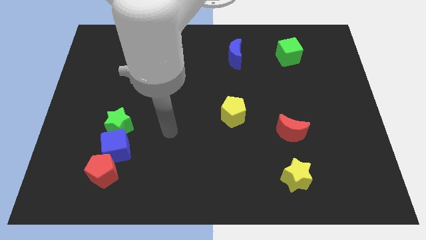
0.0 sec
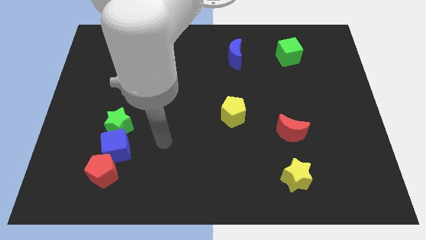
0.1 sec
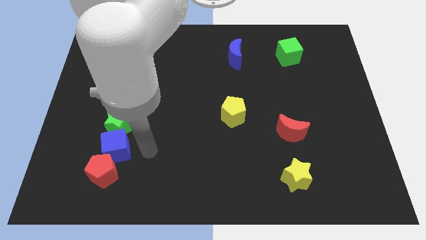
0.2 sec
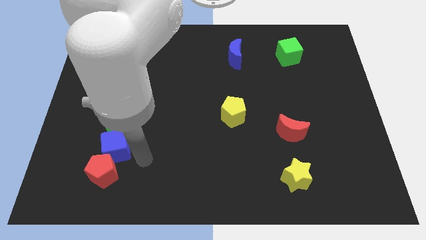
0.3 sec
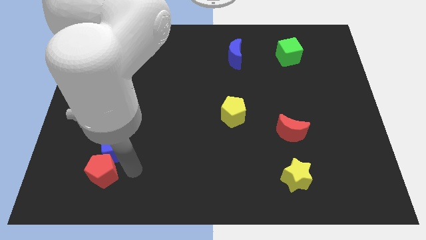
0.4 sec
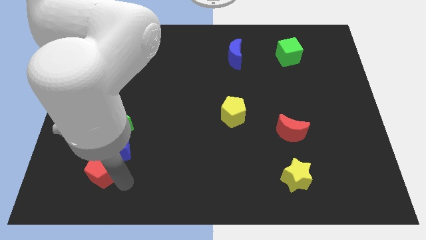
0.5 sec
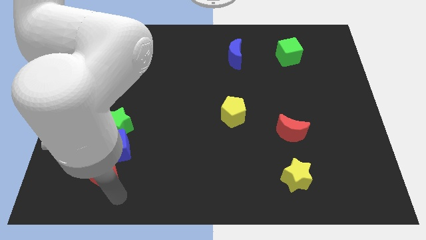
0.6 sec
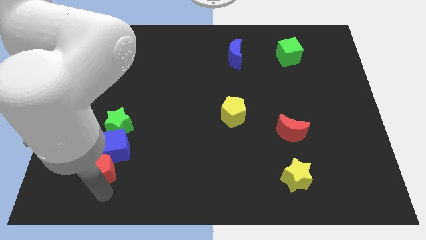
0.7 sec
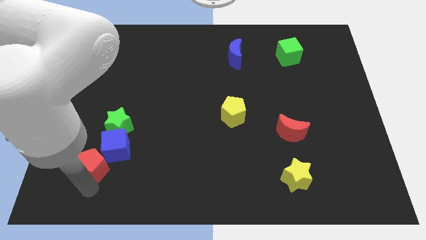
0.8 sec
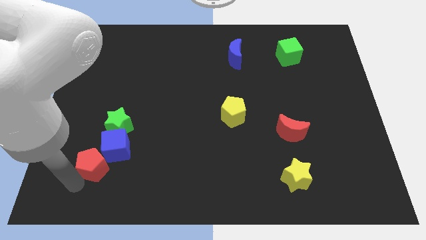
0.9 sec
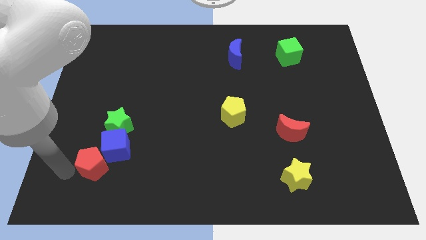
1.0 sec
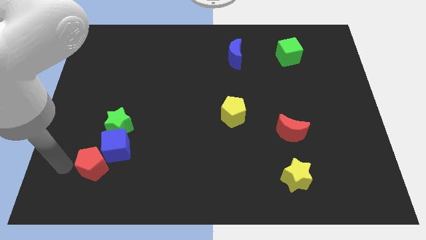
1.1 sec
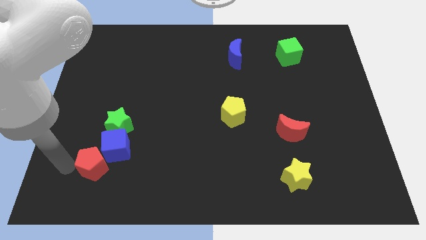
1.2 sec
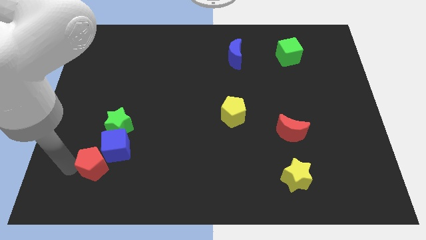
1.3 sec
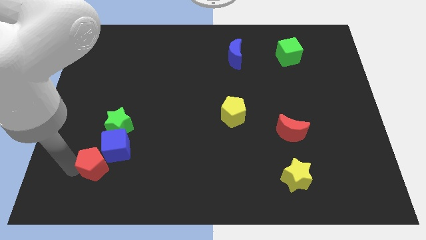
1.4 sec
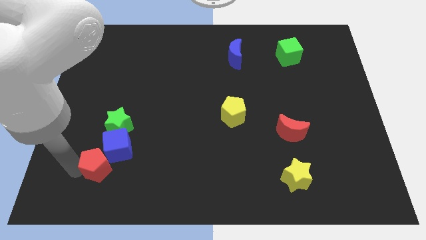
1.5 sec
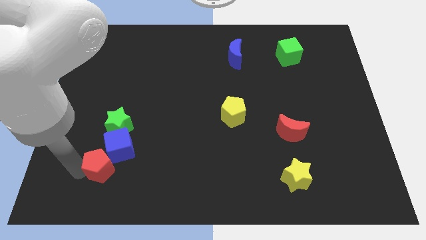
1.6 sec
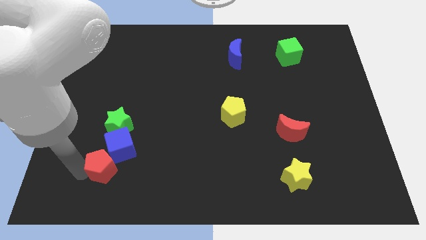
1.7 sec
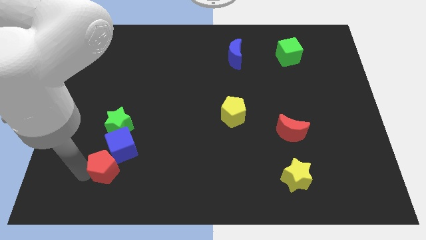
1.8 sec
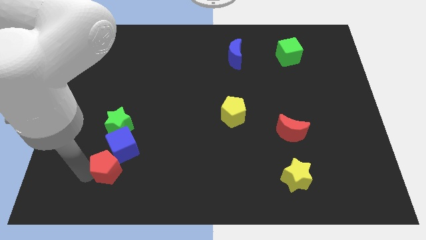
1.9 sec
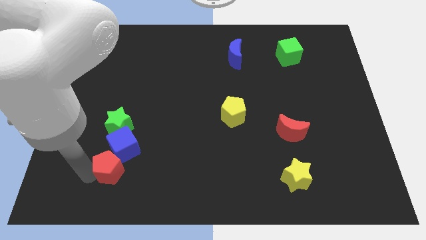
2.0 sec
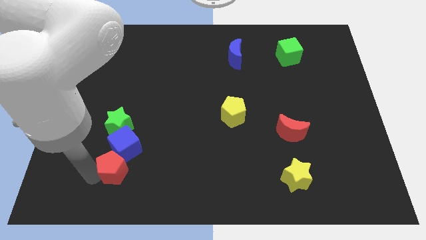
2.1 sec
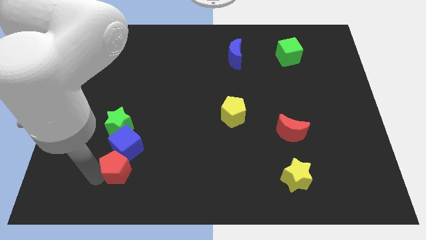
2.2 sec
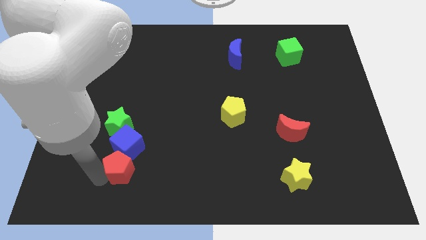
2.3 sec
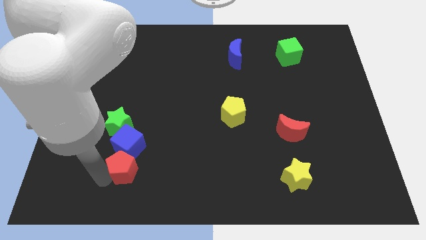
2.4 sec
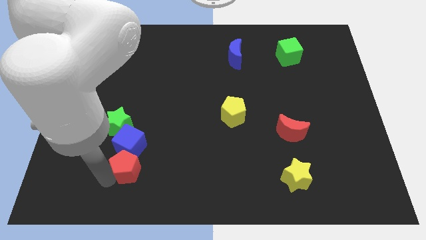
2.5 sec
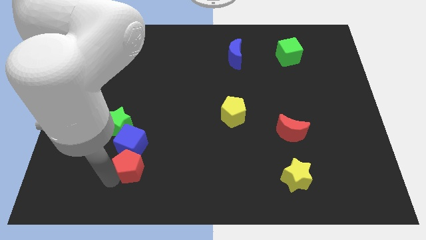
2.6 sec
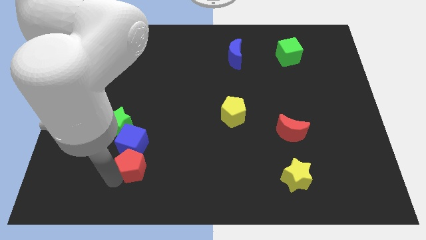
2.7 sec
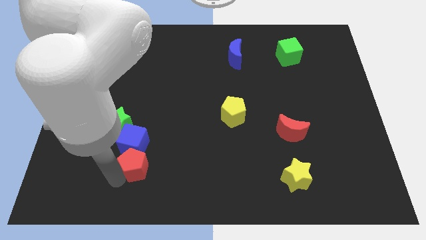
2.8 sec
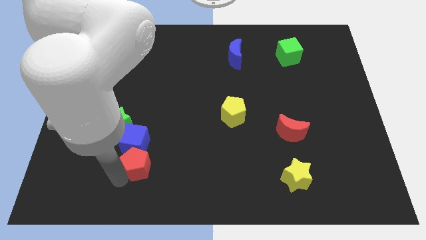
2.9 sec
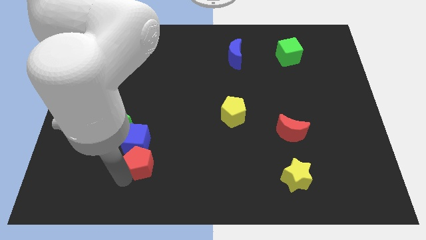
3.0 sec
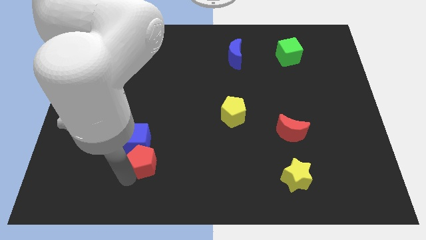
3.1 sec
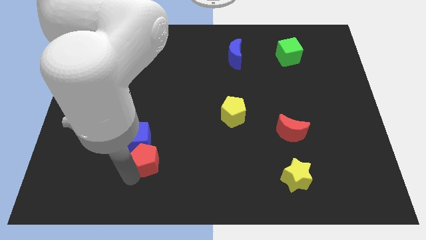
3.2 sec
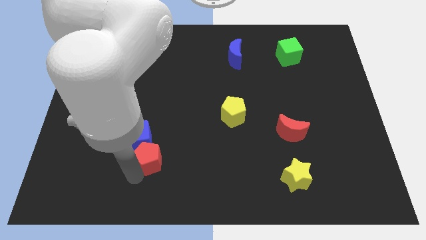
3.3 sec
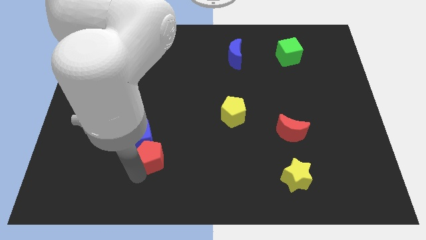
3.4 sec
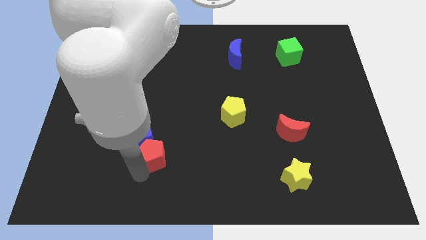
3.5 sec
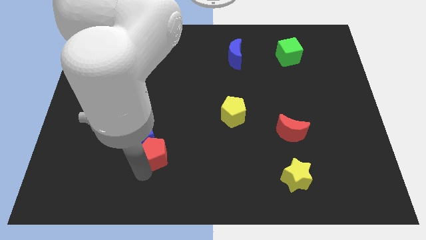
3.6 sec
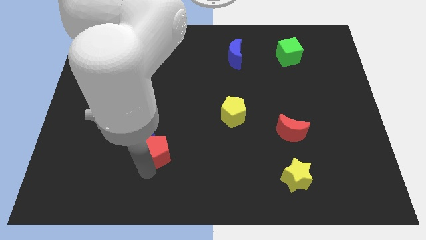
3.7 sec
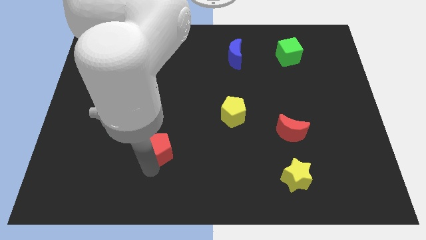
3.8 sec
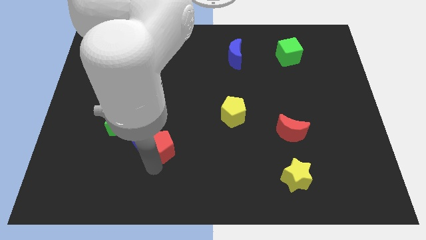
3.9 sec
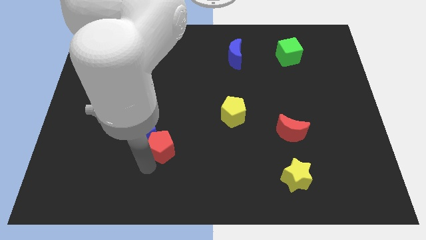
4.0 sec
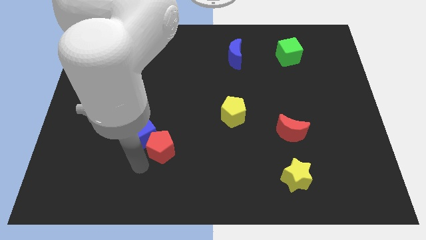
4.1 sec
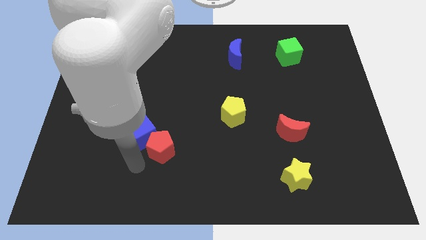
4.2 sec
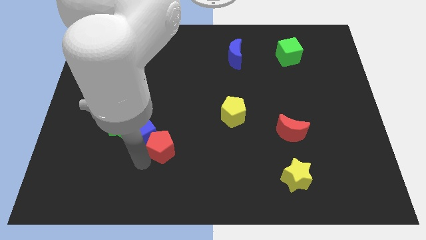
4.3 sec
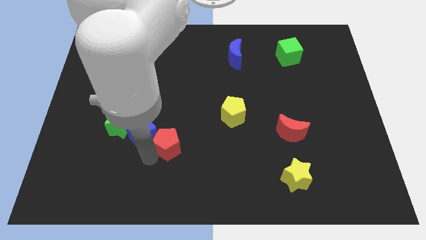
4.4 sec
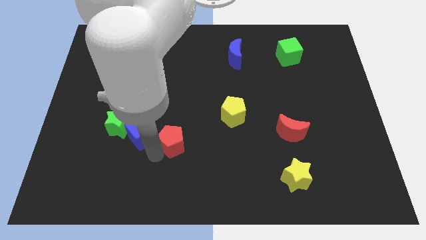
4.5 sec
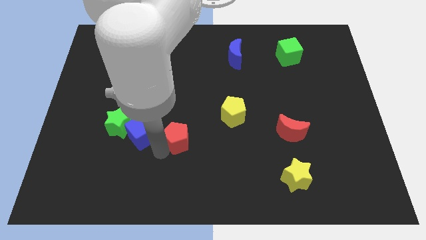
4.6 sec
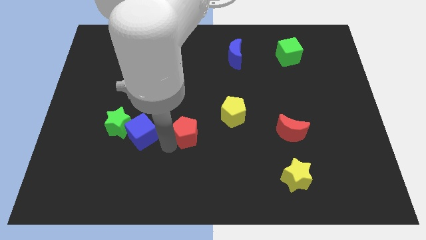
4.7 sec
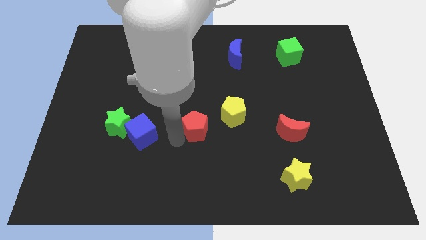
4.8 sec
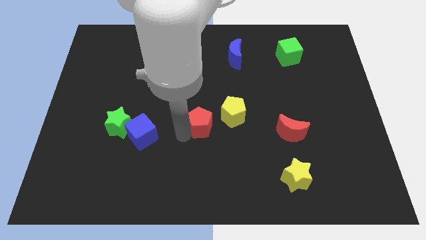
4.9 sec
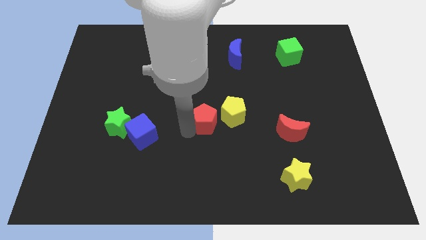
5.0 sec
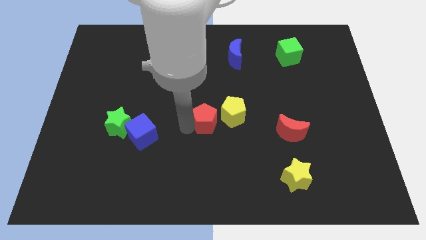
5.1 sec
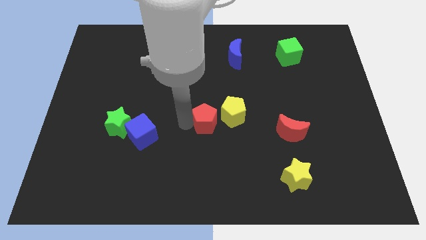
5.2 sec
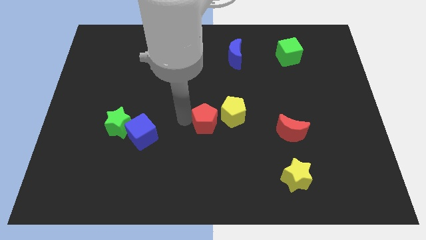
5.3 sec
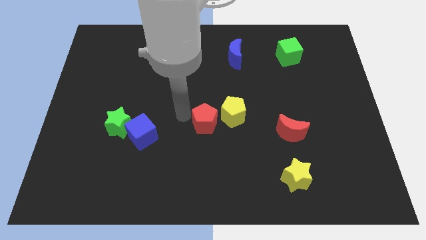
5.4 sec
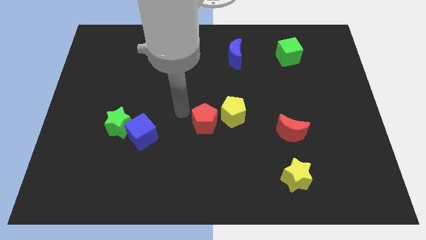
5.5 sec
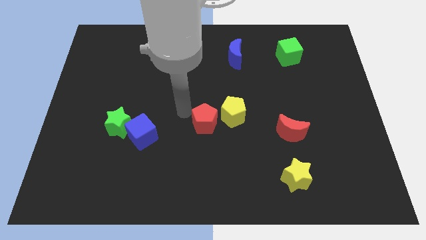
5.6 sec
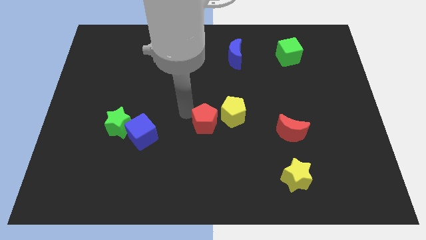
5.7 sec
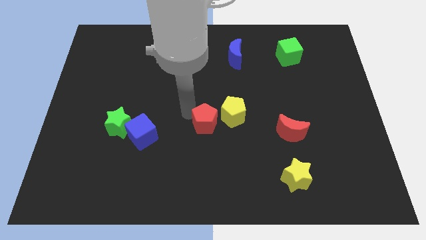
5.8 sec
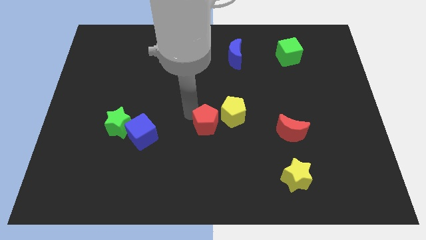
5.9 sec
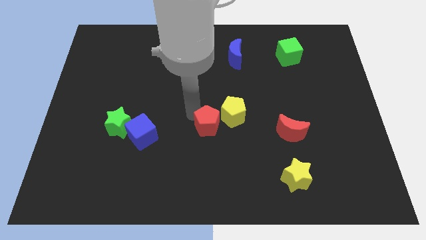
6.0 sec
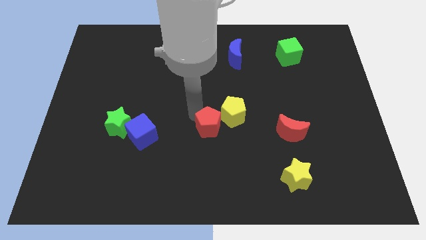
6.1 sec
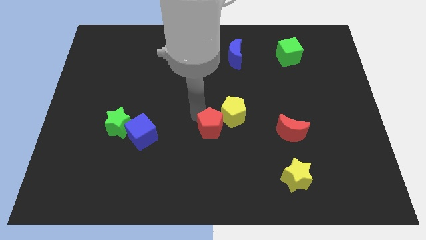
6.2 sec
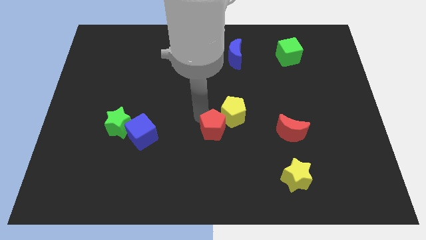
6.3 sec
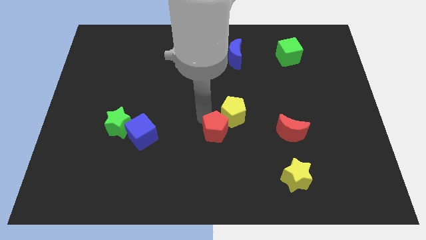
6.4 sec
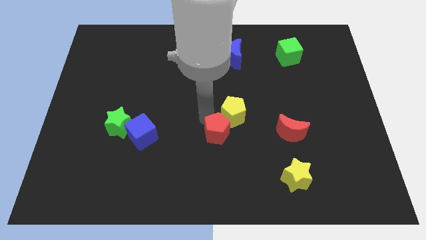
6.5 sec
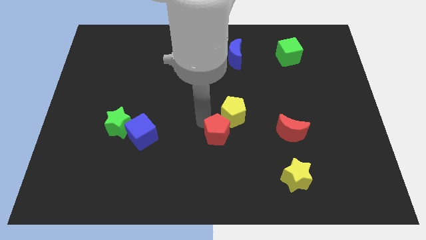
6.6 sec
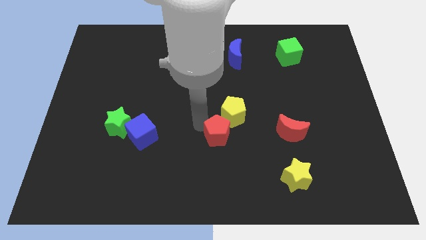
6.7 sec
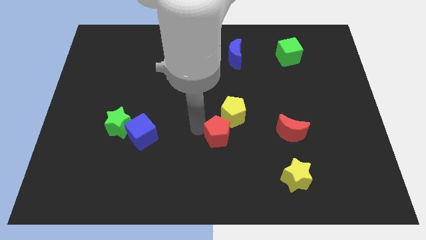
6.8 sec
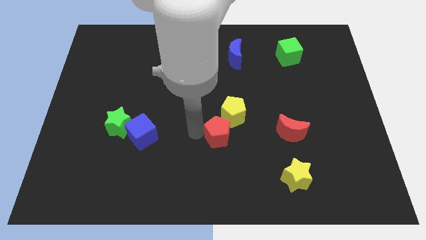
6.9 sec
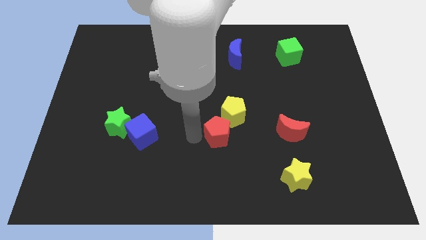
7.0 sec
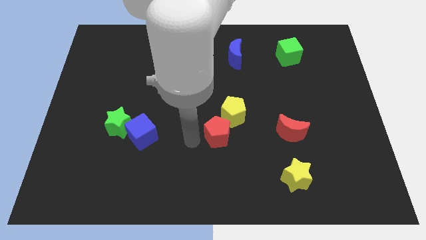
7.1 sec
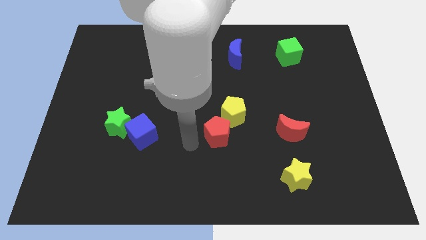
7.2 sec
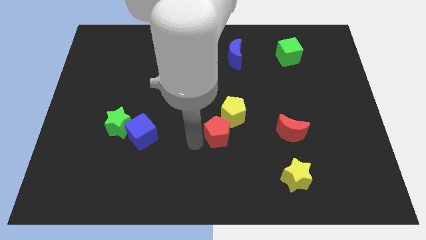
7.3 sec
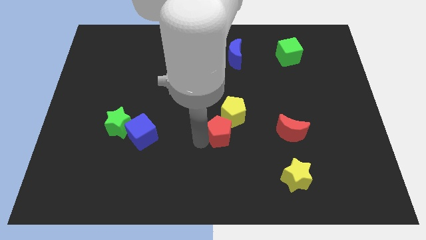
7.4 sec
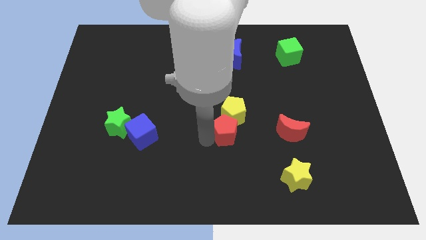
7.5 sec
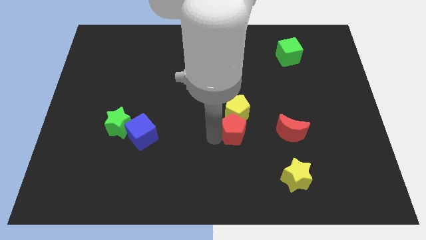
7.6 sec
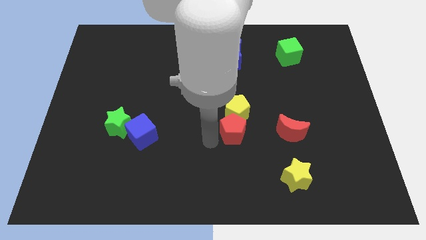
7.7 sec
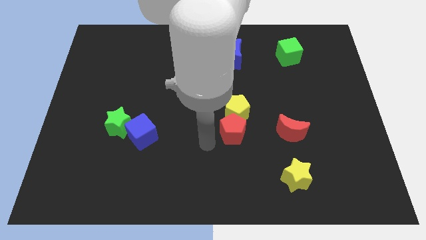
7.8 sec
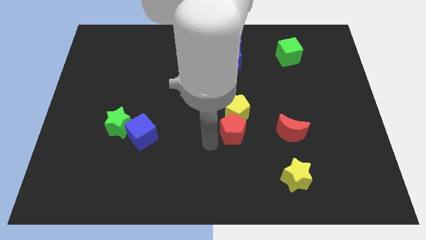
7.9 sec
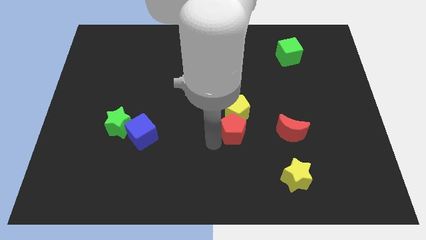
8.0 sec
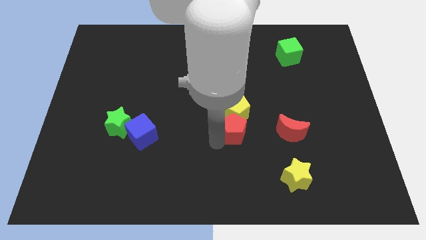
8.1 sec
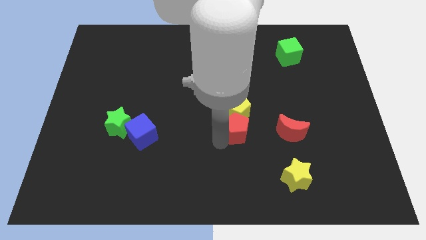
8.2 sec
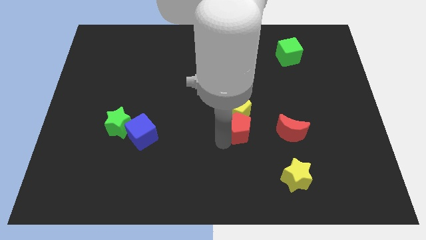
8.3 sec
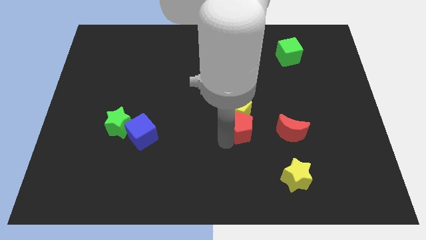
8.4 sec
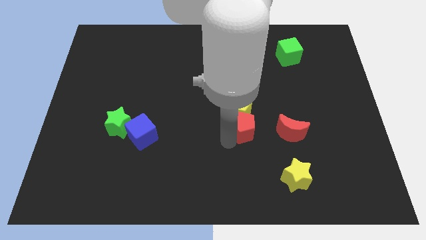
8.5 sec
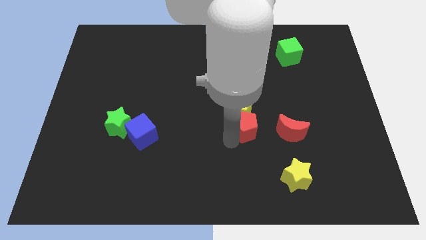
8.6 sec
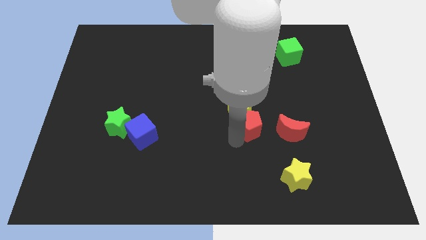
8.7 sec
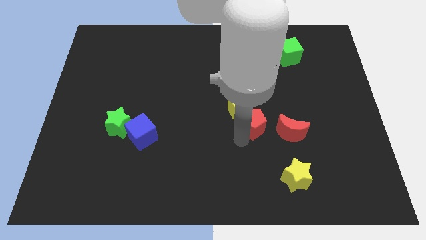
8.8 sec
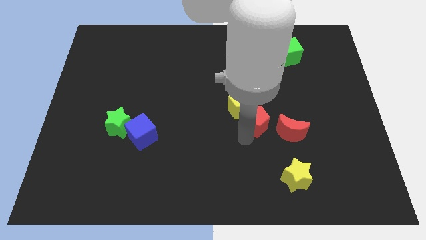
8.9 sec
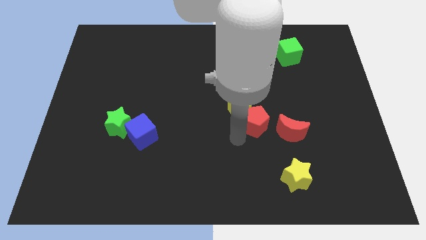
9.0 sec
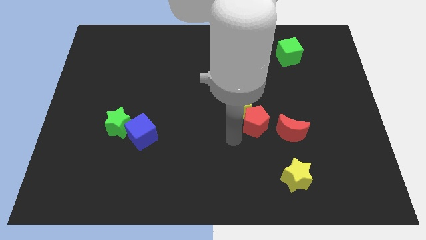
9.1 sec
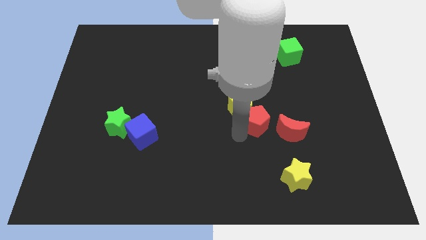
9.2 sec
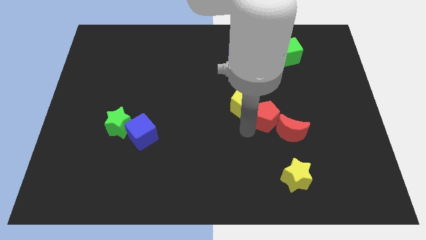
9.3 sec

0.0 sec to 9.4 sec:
move the red pentagon right of the yellow pentagon
